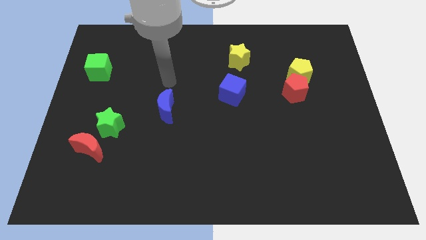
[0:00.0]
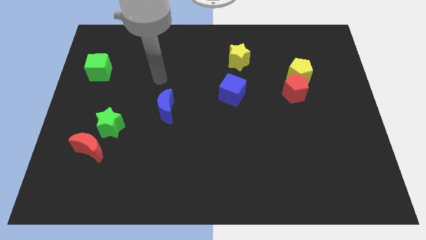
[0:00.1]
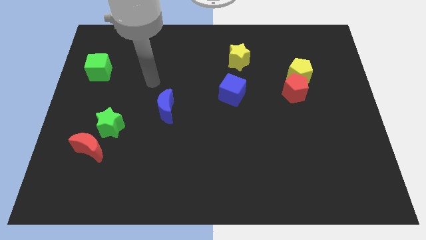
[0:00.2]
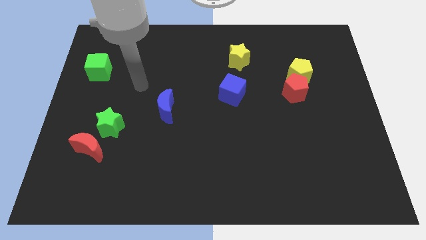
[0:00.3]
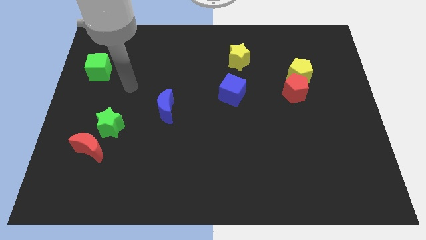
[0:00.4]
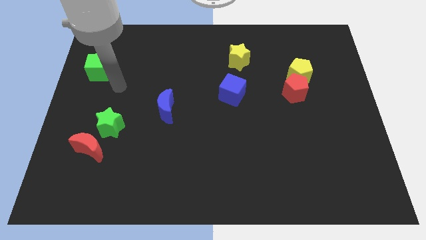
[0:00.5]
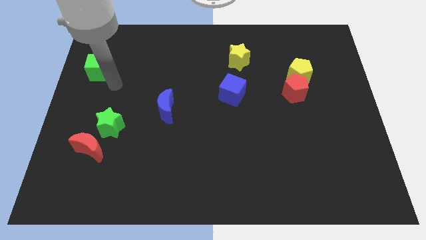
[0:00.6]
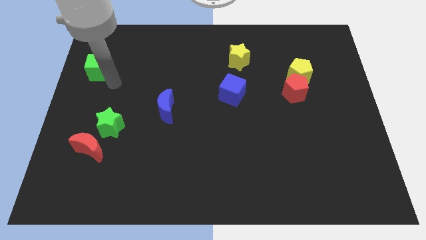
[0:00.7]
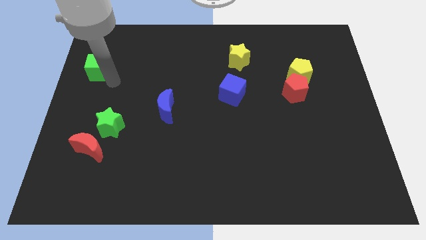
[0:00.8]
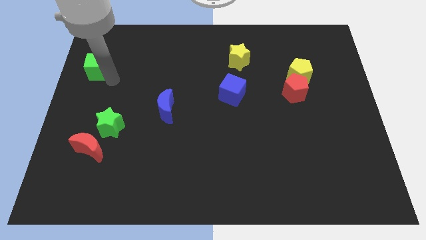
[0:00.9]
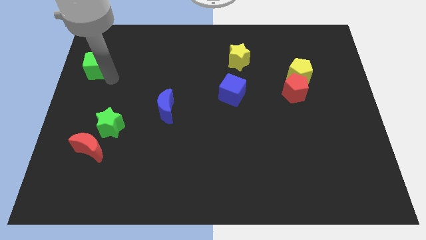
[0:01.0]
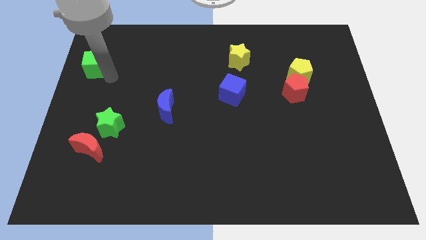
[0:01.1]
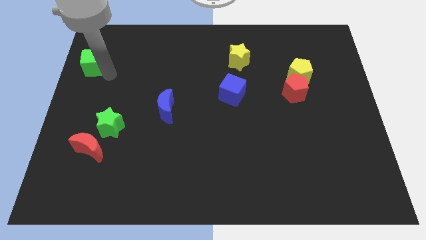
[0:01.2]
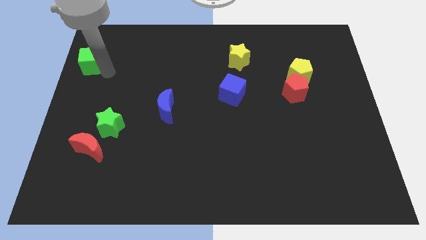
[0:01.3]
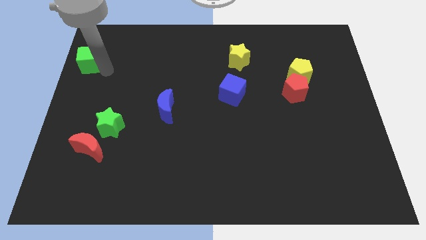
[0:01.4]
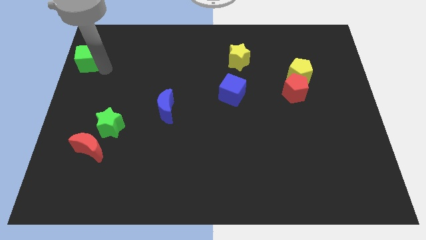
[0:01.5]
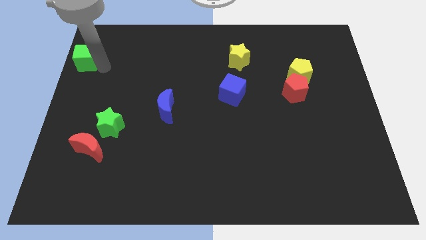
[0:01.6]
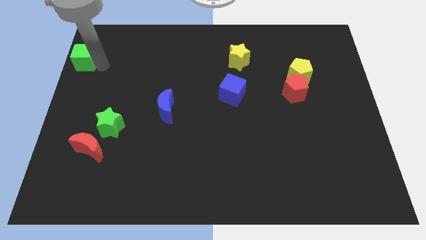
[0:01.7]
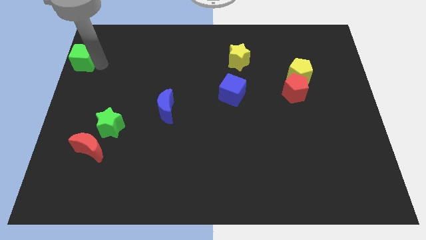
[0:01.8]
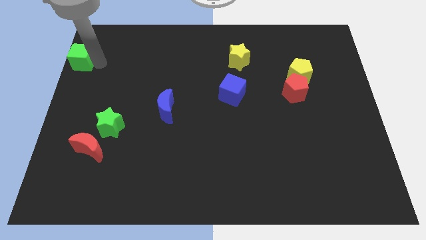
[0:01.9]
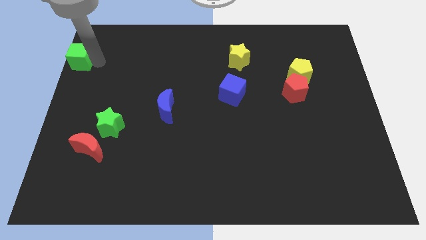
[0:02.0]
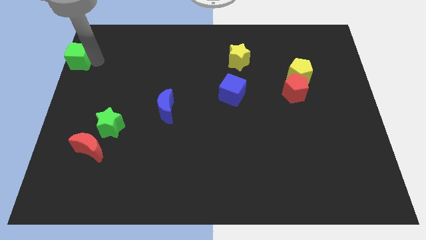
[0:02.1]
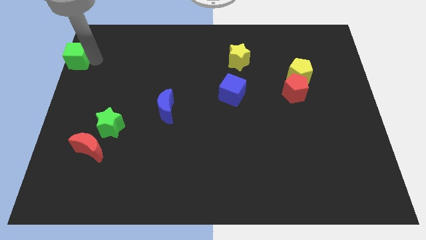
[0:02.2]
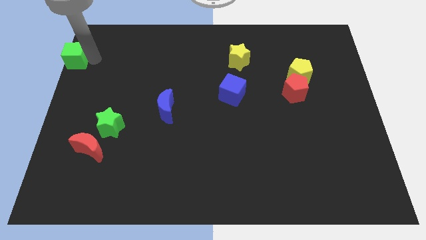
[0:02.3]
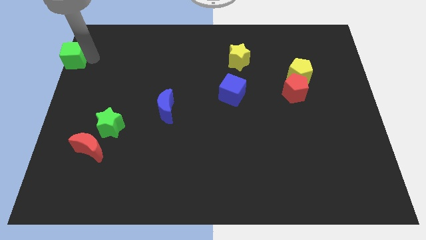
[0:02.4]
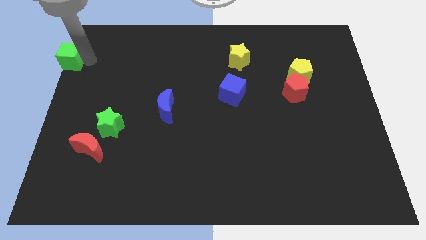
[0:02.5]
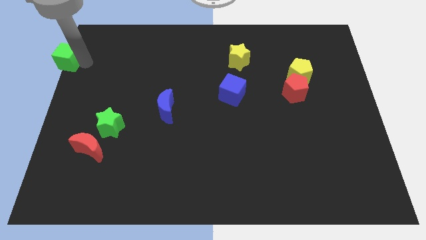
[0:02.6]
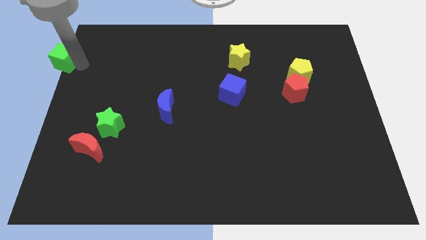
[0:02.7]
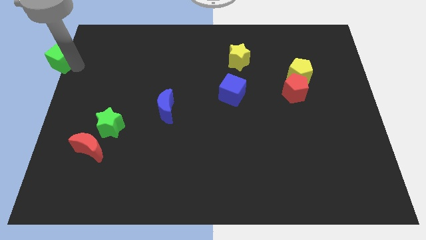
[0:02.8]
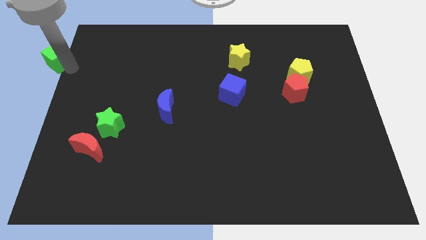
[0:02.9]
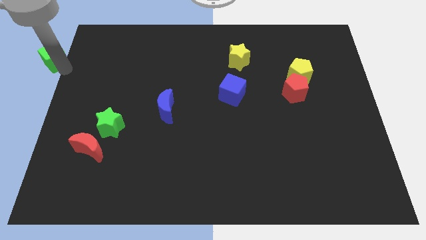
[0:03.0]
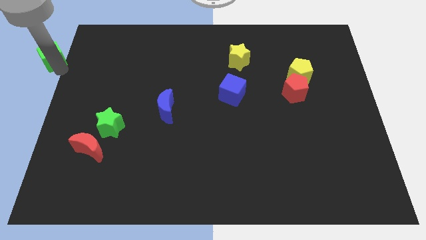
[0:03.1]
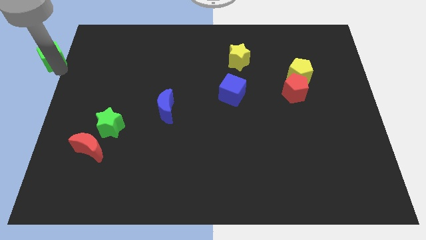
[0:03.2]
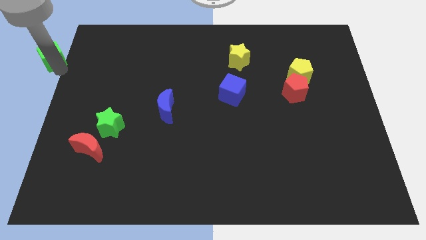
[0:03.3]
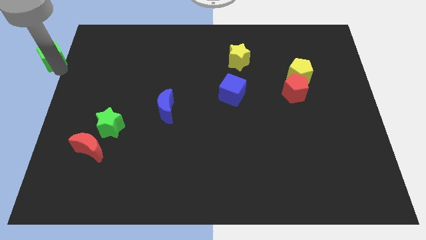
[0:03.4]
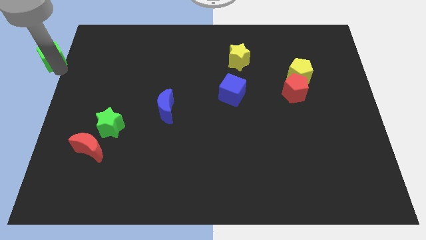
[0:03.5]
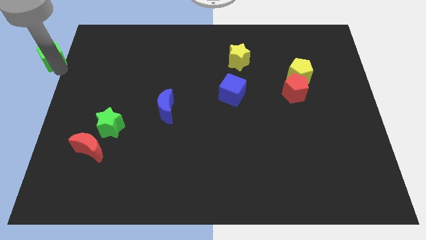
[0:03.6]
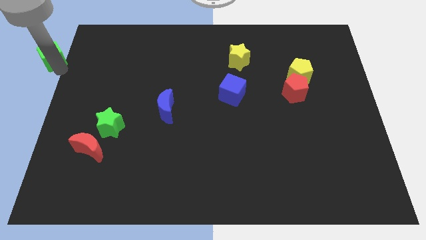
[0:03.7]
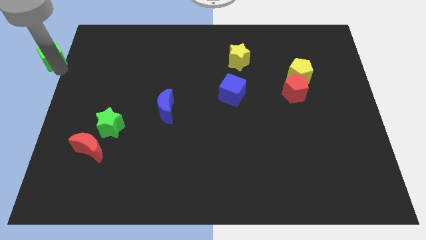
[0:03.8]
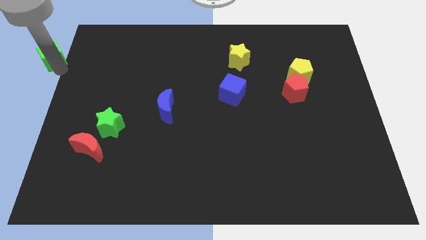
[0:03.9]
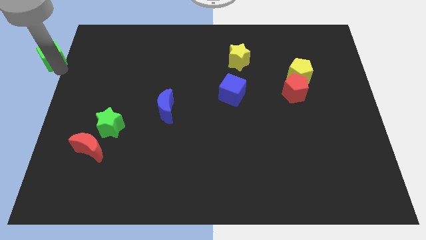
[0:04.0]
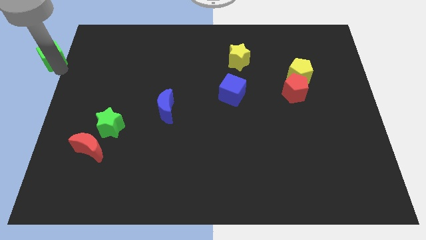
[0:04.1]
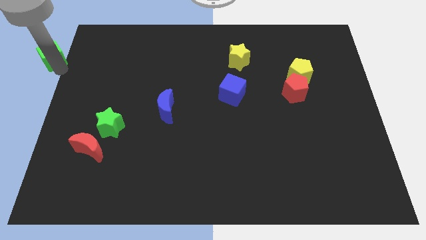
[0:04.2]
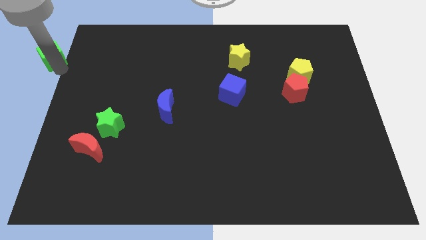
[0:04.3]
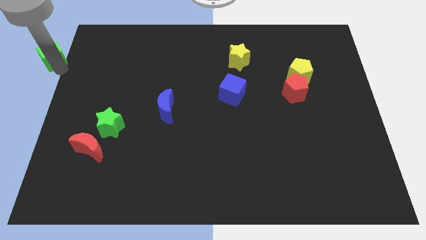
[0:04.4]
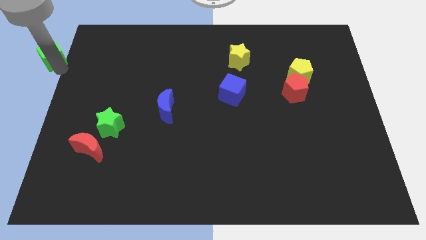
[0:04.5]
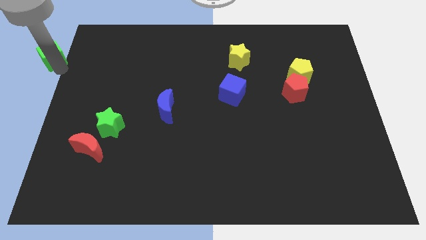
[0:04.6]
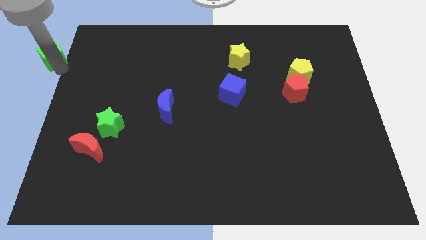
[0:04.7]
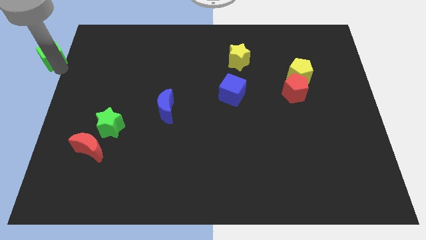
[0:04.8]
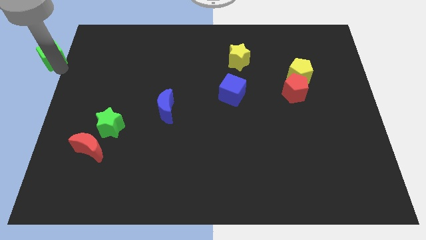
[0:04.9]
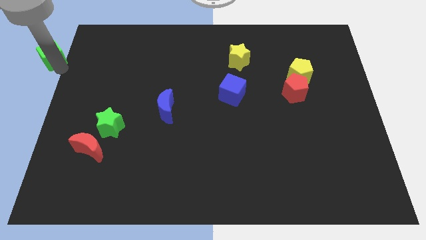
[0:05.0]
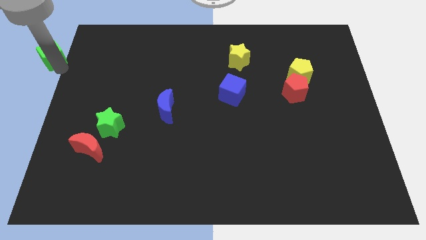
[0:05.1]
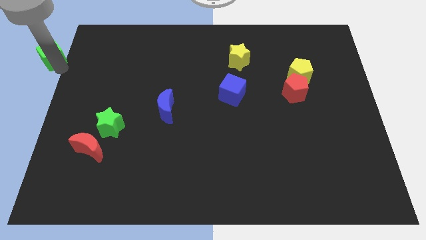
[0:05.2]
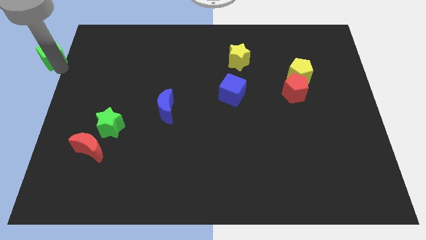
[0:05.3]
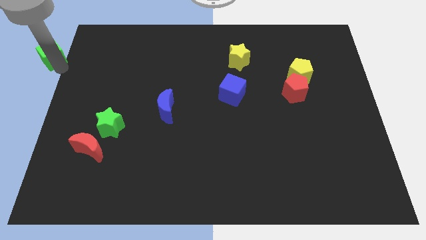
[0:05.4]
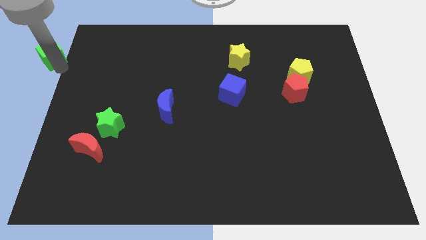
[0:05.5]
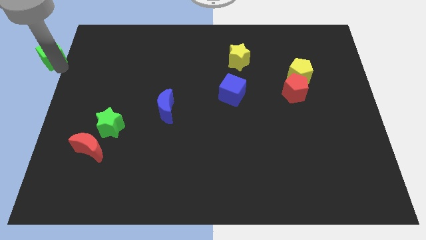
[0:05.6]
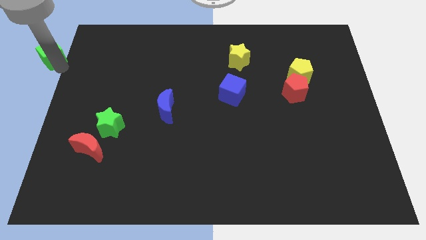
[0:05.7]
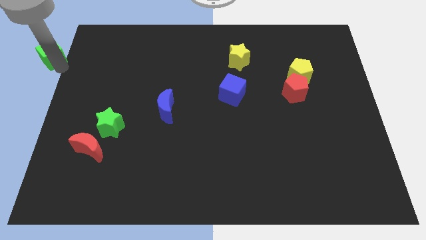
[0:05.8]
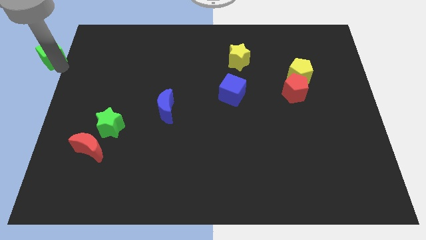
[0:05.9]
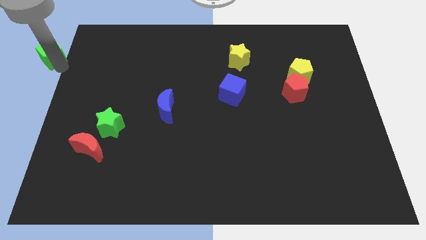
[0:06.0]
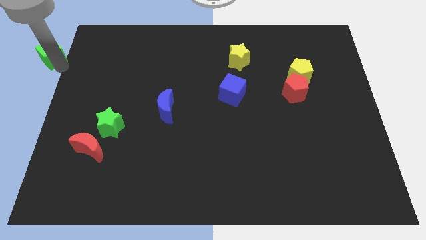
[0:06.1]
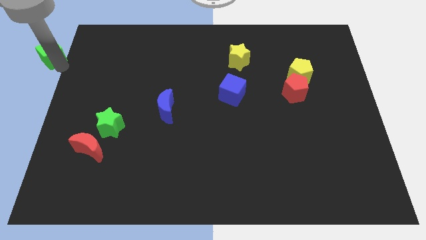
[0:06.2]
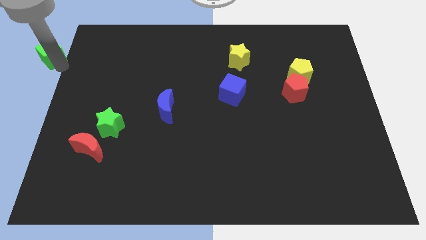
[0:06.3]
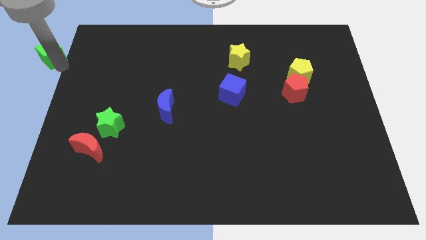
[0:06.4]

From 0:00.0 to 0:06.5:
move the green cube to the upper left corner

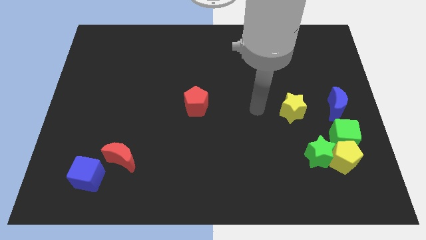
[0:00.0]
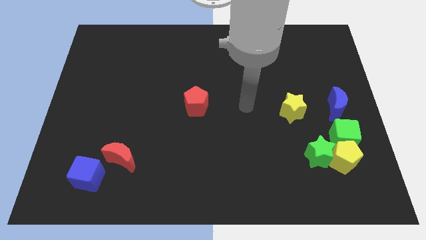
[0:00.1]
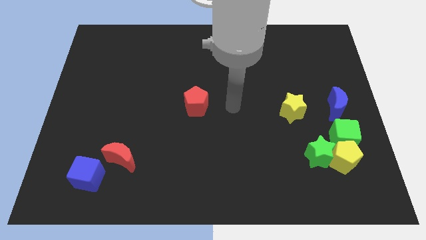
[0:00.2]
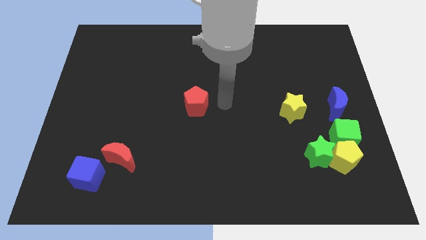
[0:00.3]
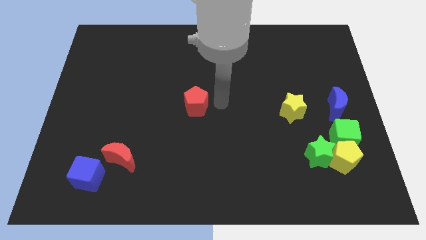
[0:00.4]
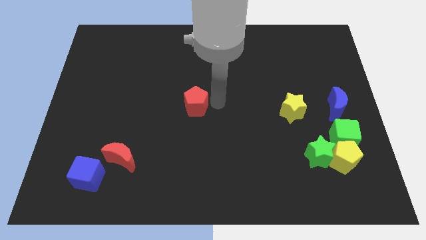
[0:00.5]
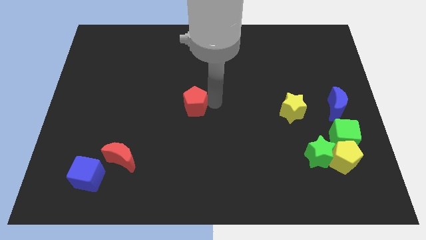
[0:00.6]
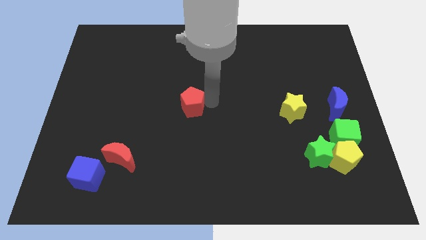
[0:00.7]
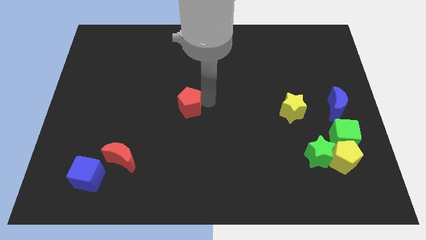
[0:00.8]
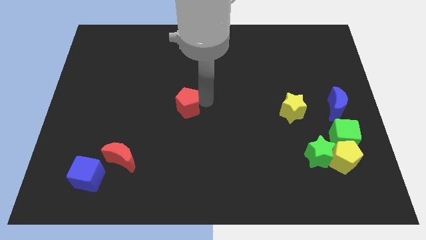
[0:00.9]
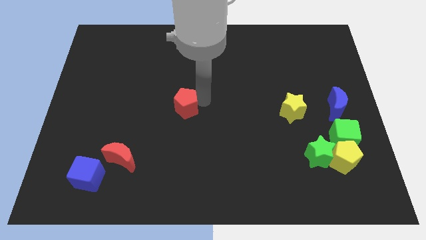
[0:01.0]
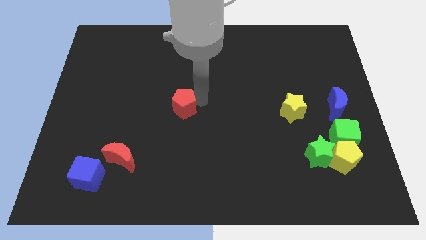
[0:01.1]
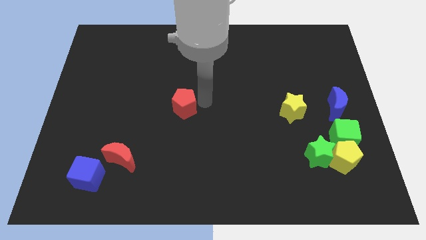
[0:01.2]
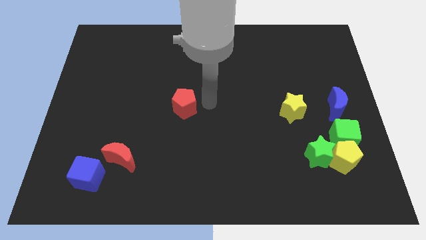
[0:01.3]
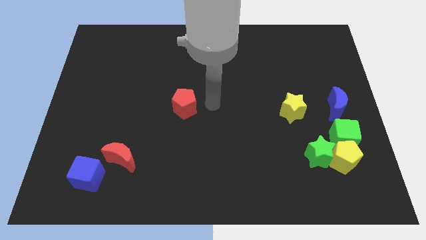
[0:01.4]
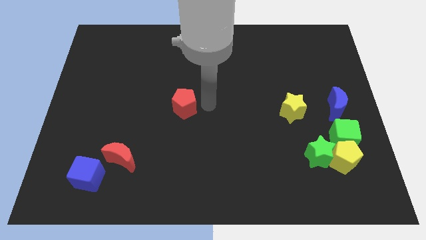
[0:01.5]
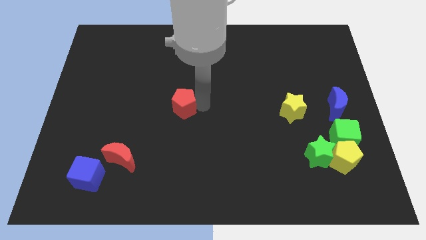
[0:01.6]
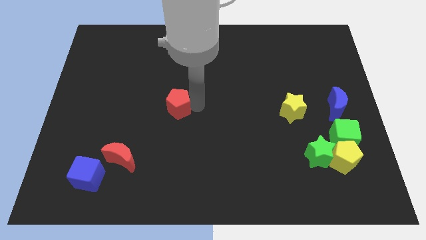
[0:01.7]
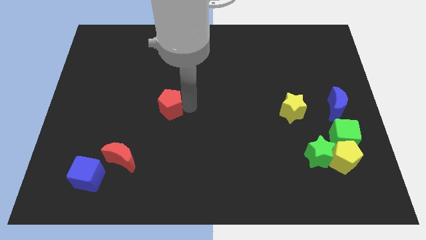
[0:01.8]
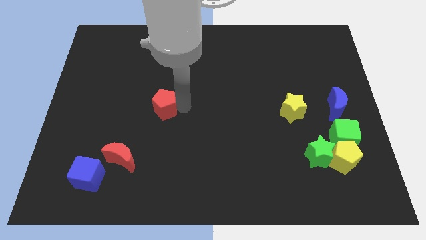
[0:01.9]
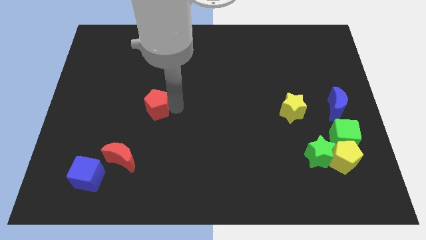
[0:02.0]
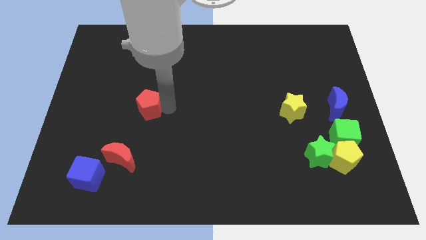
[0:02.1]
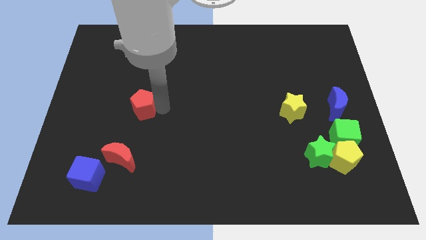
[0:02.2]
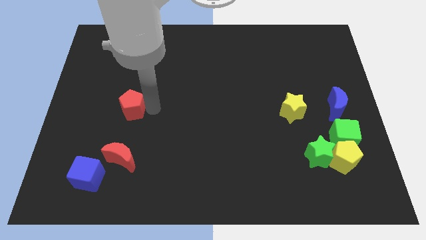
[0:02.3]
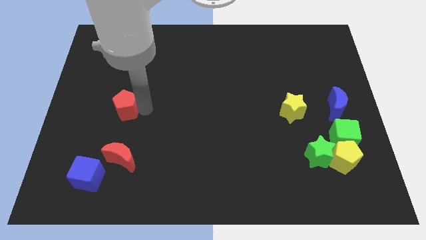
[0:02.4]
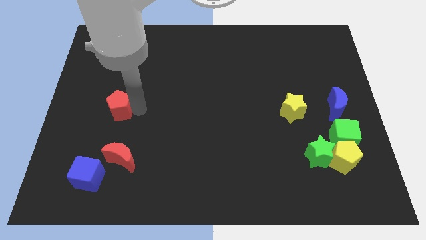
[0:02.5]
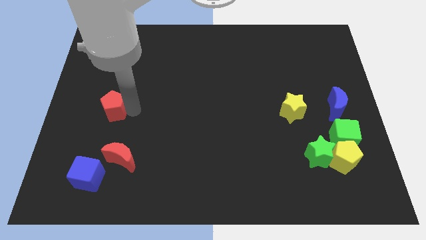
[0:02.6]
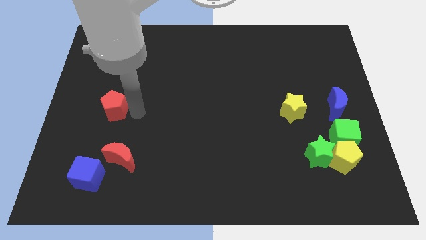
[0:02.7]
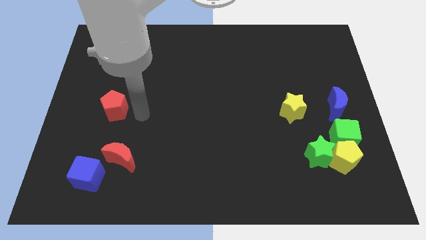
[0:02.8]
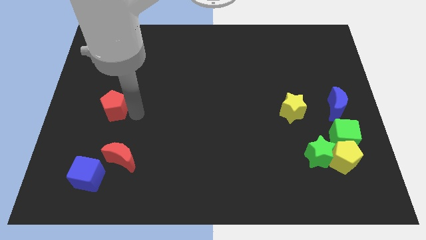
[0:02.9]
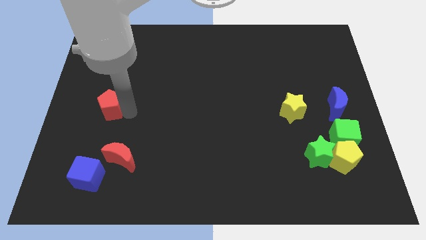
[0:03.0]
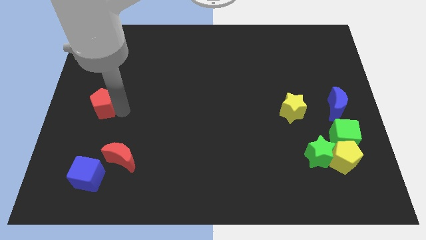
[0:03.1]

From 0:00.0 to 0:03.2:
move the red pentagon to the center left
